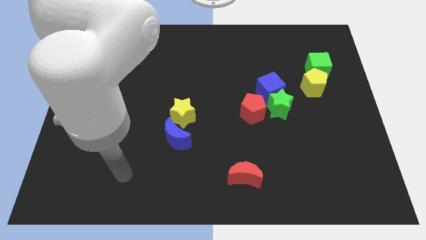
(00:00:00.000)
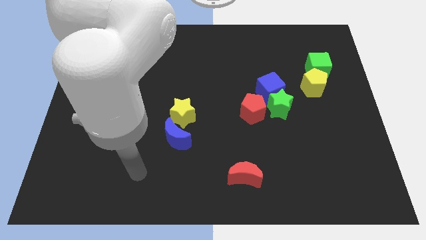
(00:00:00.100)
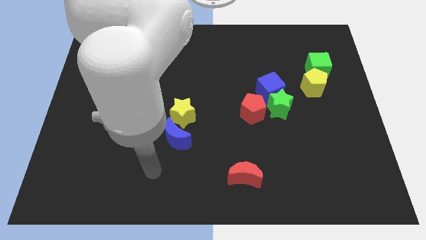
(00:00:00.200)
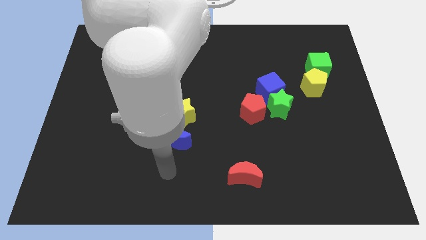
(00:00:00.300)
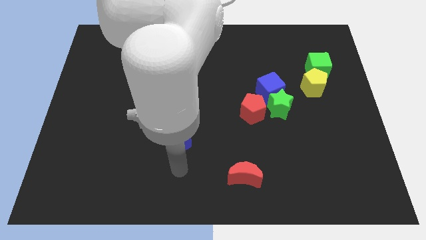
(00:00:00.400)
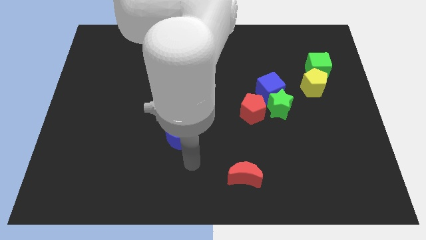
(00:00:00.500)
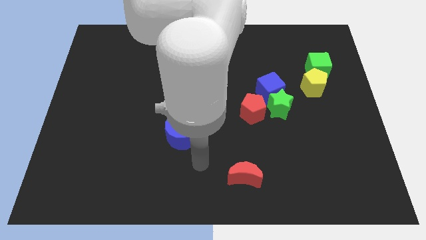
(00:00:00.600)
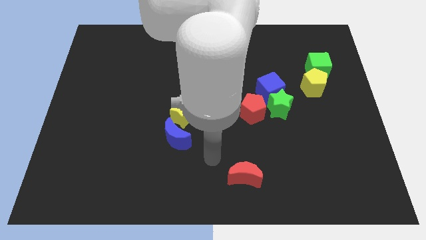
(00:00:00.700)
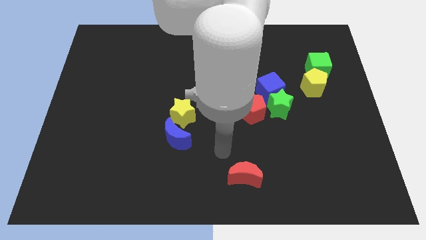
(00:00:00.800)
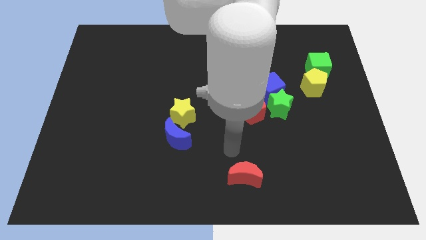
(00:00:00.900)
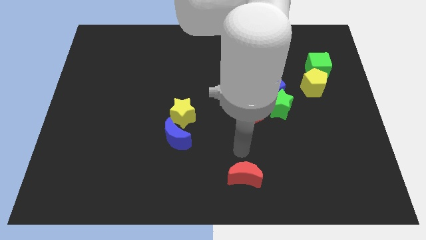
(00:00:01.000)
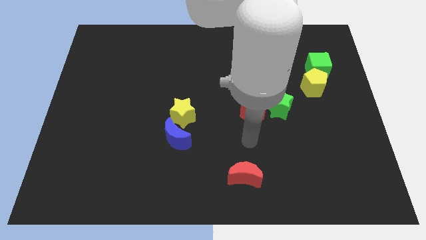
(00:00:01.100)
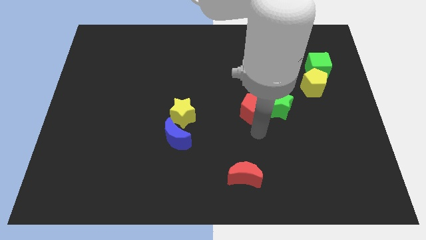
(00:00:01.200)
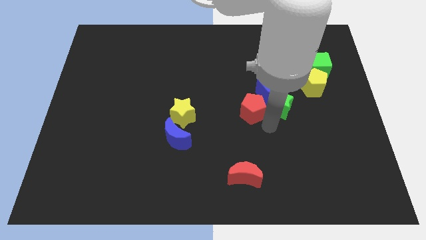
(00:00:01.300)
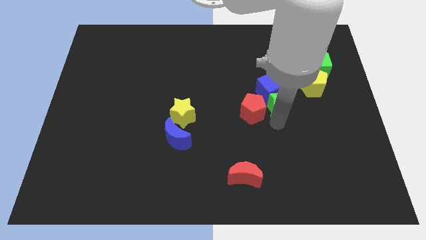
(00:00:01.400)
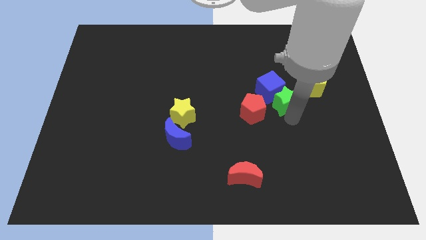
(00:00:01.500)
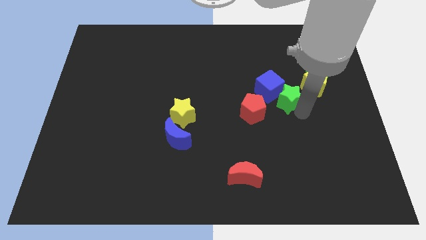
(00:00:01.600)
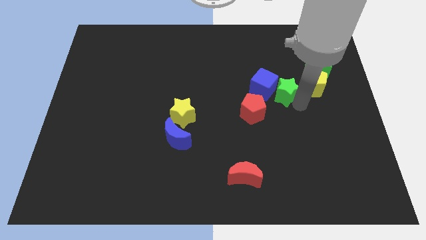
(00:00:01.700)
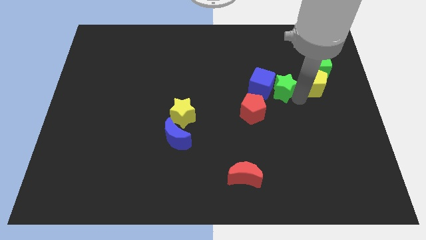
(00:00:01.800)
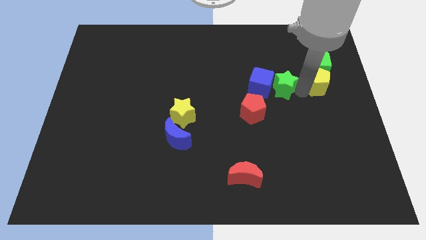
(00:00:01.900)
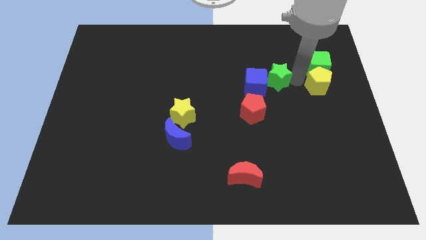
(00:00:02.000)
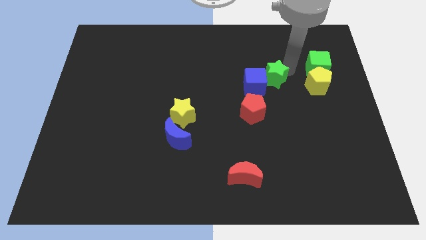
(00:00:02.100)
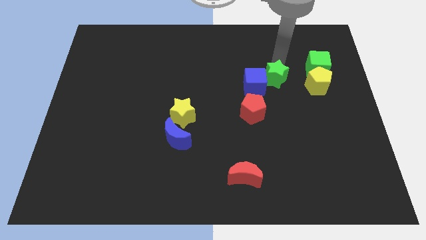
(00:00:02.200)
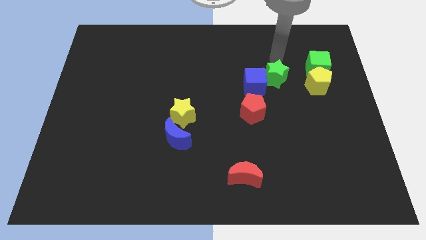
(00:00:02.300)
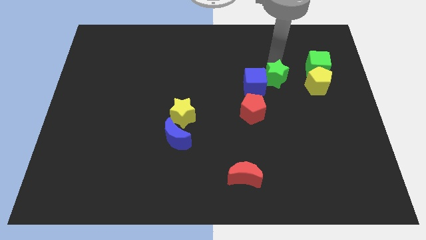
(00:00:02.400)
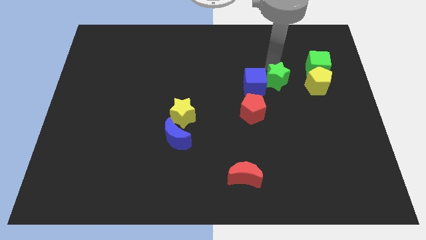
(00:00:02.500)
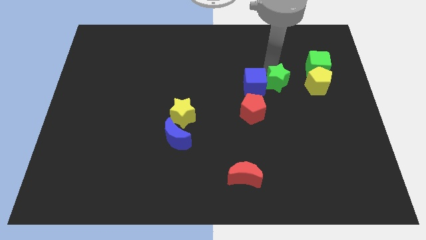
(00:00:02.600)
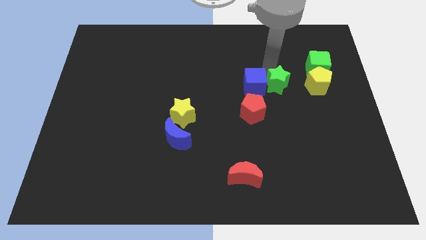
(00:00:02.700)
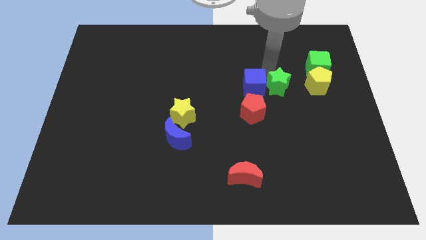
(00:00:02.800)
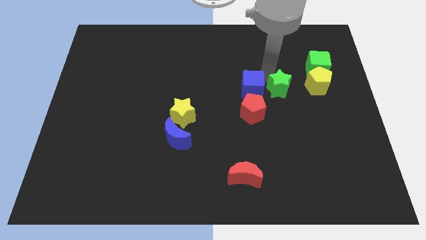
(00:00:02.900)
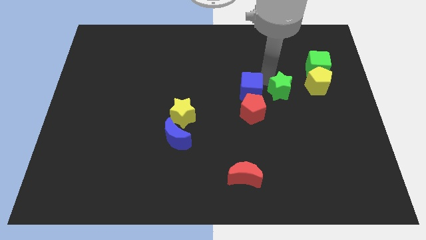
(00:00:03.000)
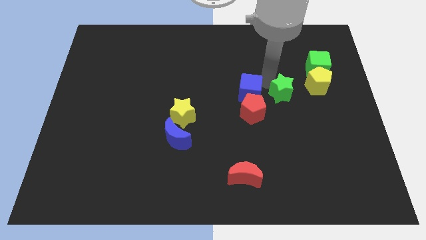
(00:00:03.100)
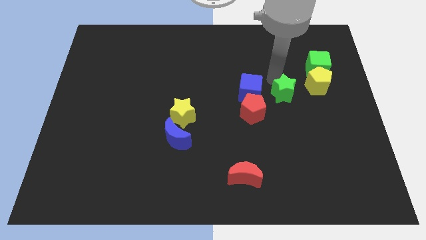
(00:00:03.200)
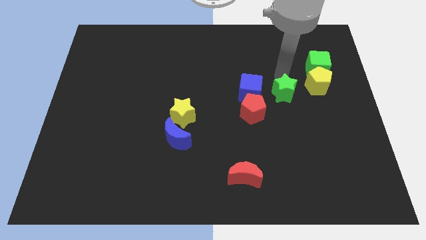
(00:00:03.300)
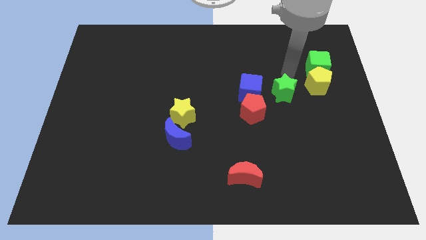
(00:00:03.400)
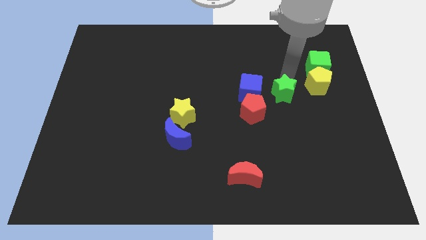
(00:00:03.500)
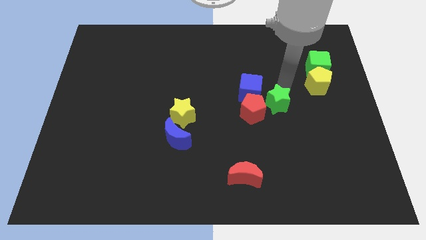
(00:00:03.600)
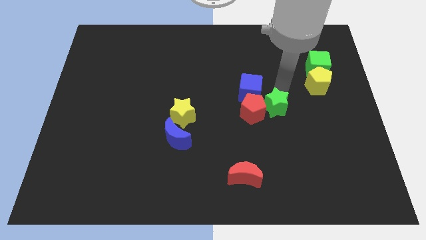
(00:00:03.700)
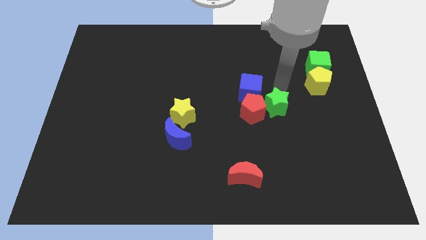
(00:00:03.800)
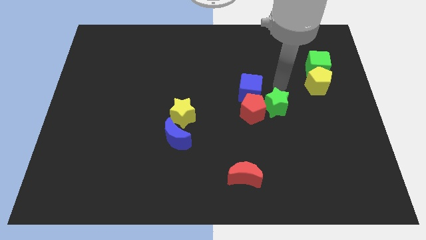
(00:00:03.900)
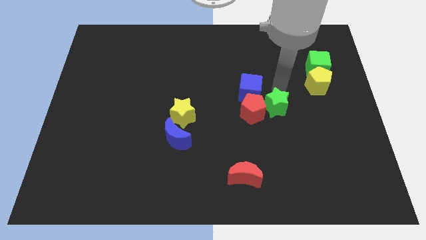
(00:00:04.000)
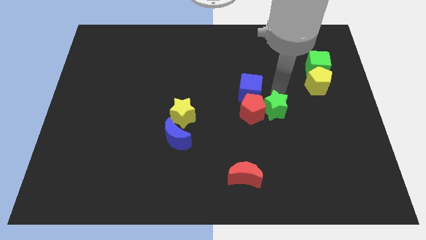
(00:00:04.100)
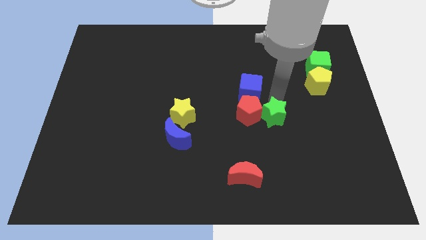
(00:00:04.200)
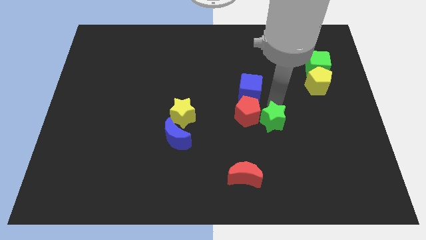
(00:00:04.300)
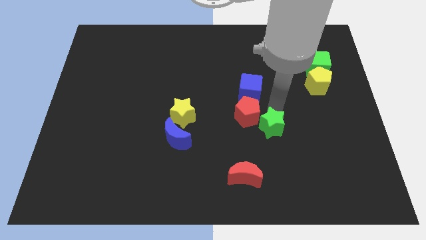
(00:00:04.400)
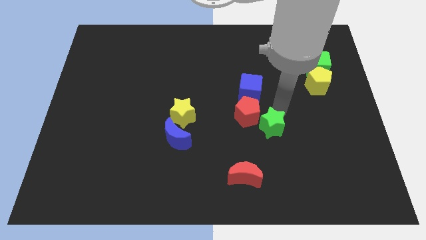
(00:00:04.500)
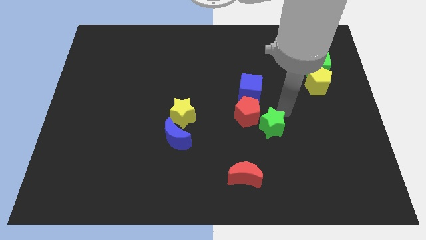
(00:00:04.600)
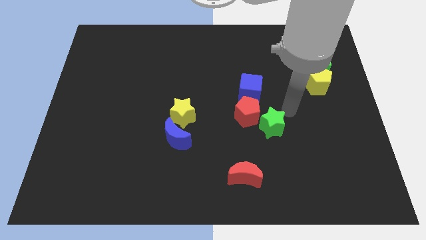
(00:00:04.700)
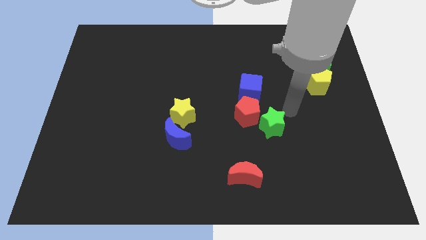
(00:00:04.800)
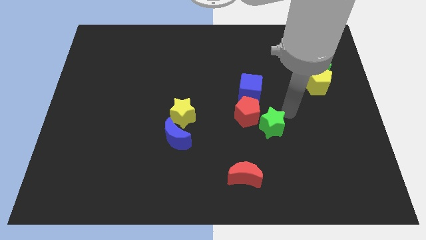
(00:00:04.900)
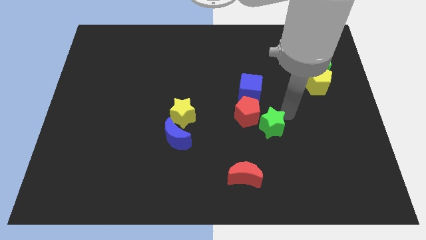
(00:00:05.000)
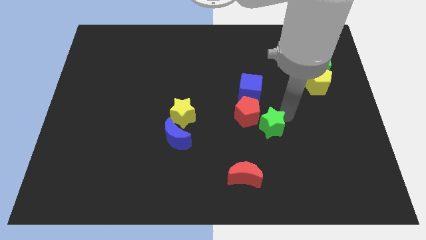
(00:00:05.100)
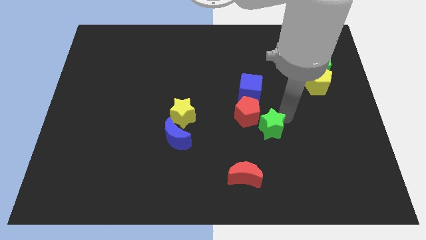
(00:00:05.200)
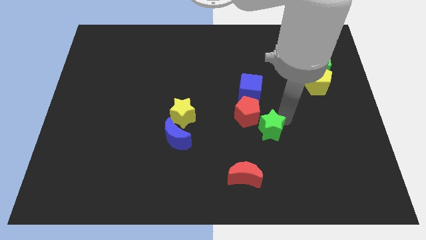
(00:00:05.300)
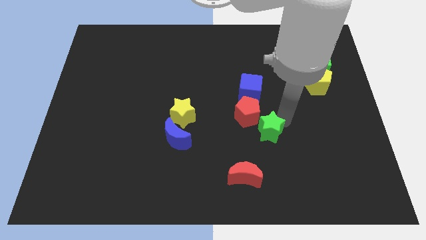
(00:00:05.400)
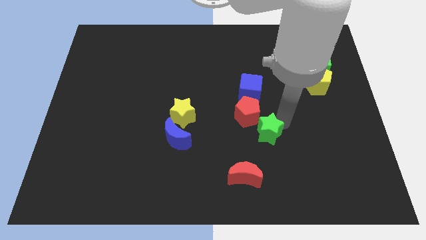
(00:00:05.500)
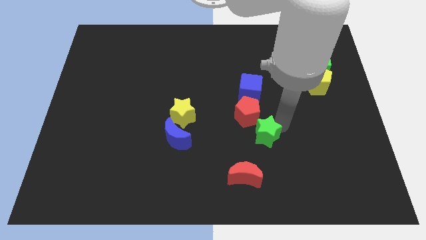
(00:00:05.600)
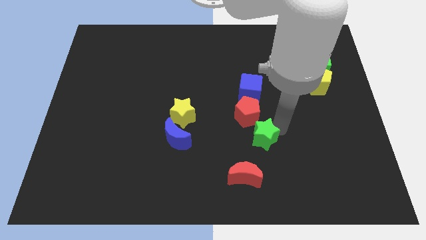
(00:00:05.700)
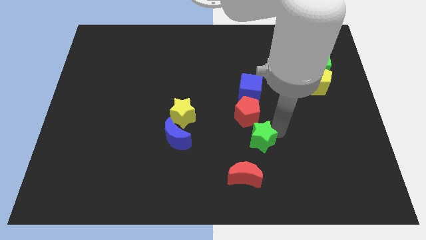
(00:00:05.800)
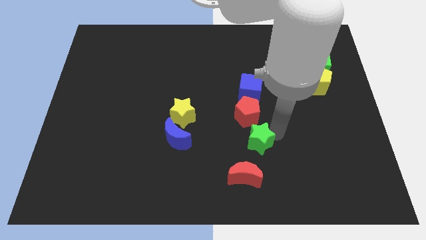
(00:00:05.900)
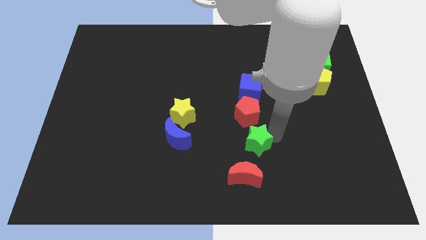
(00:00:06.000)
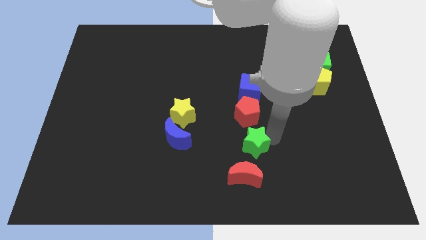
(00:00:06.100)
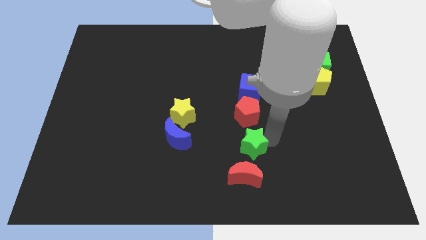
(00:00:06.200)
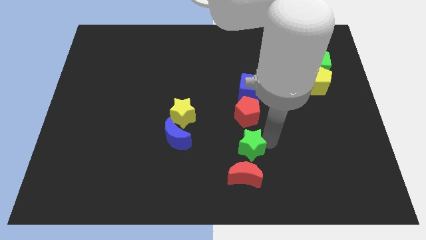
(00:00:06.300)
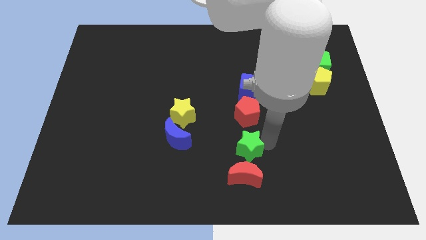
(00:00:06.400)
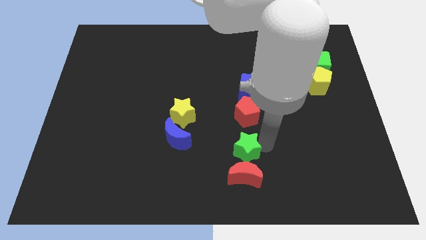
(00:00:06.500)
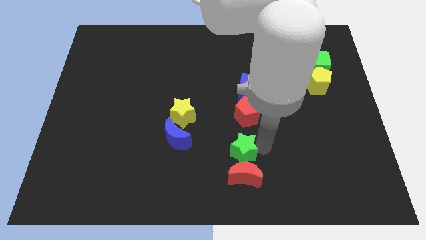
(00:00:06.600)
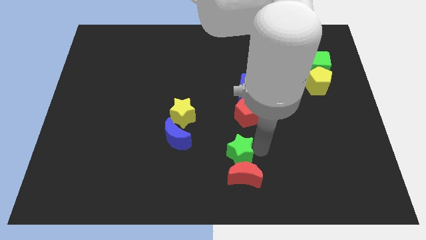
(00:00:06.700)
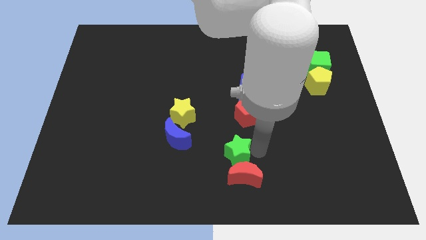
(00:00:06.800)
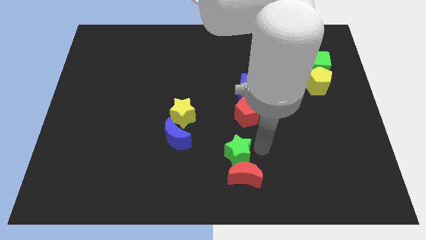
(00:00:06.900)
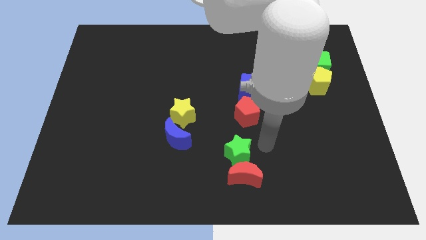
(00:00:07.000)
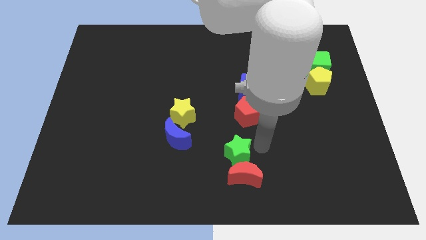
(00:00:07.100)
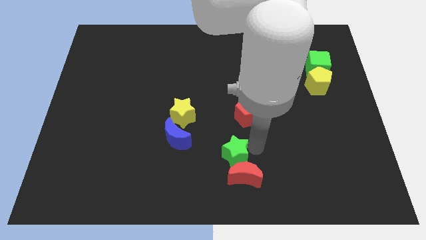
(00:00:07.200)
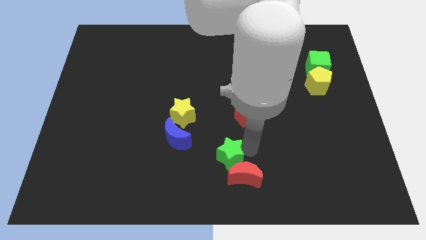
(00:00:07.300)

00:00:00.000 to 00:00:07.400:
move the green star to the bottom side
